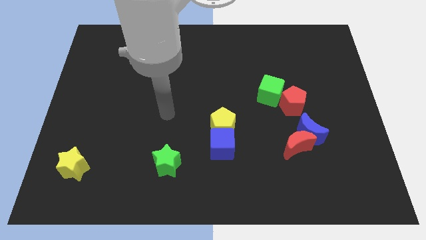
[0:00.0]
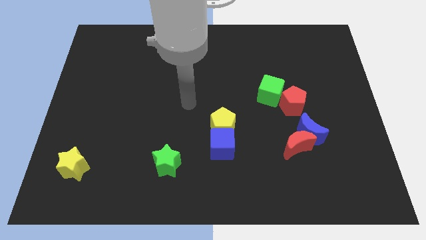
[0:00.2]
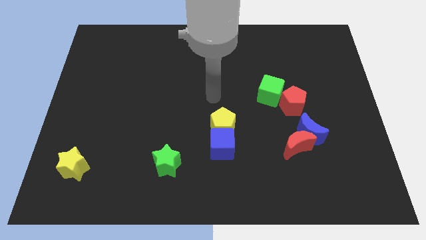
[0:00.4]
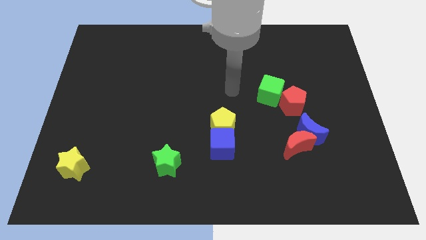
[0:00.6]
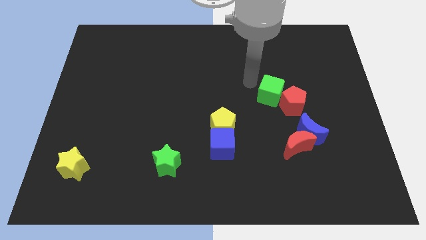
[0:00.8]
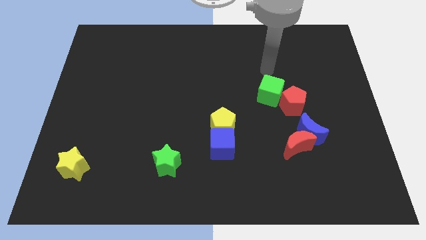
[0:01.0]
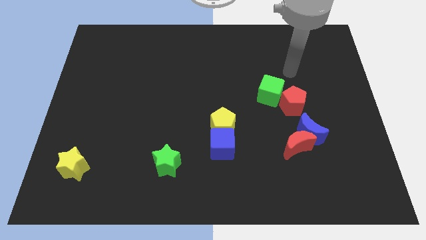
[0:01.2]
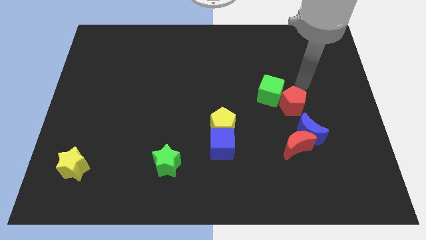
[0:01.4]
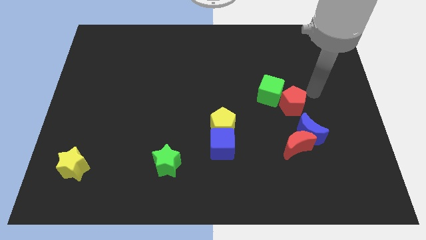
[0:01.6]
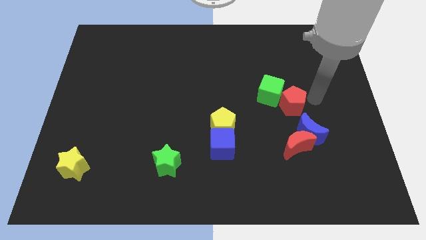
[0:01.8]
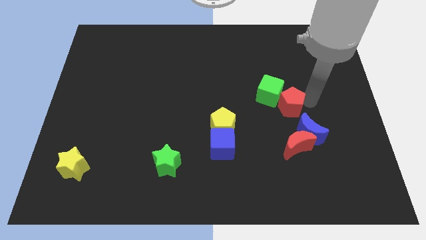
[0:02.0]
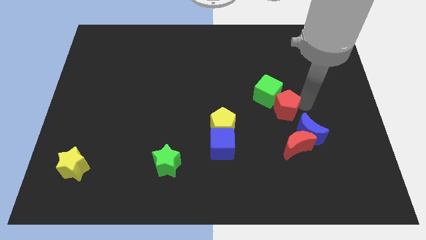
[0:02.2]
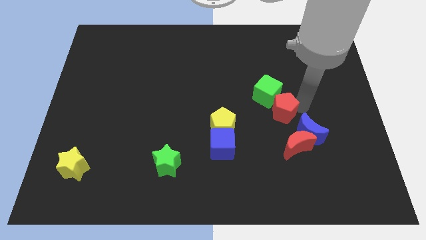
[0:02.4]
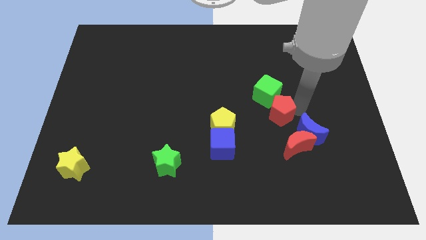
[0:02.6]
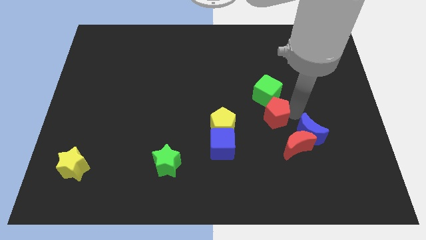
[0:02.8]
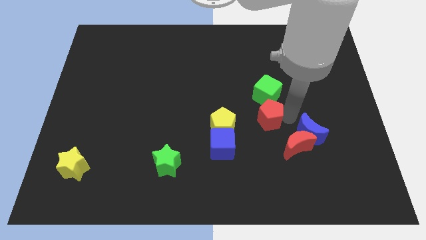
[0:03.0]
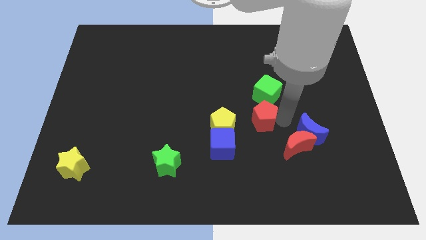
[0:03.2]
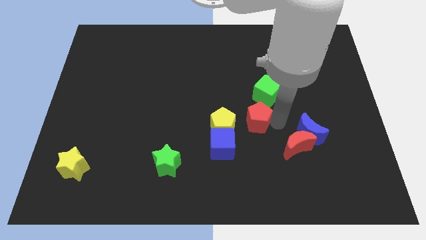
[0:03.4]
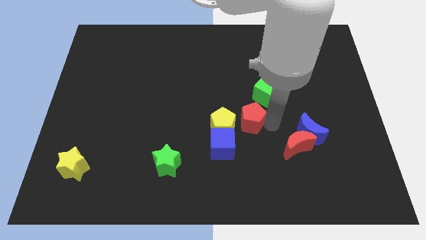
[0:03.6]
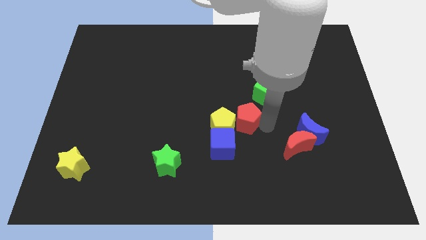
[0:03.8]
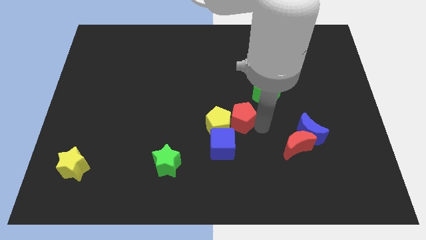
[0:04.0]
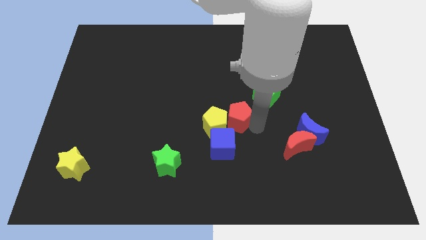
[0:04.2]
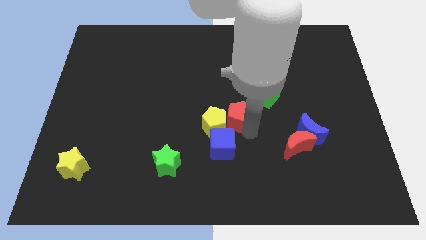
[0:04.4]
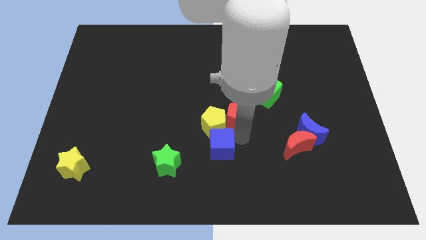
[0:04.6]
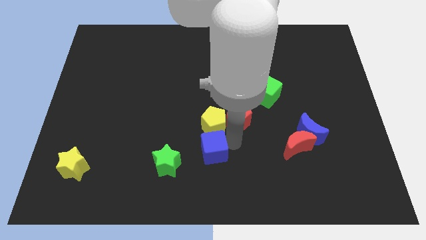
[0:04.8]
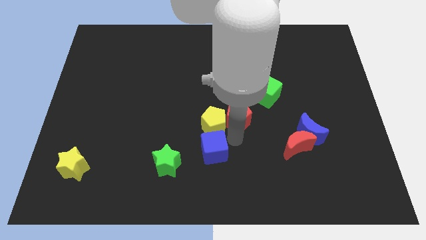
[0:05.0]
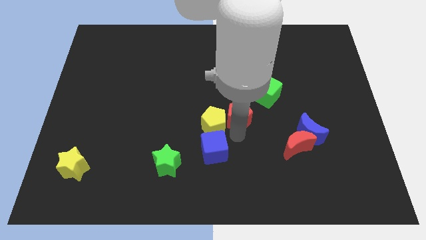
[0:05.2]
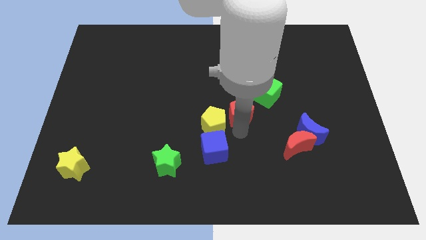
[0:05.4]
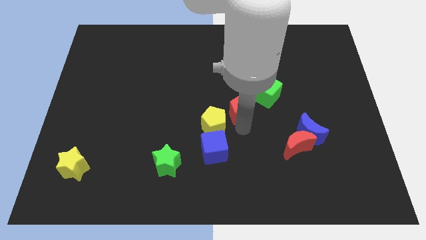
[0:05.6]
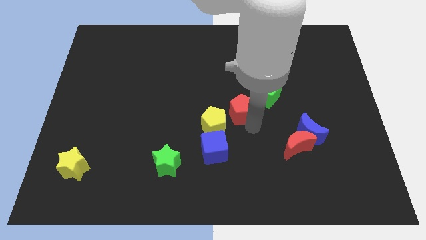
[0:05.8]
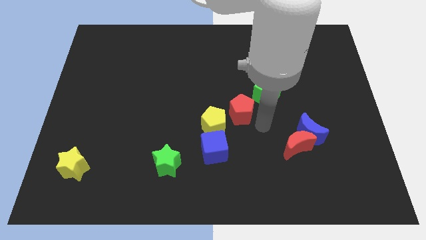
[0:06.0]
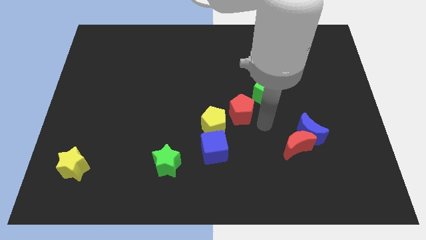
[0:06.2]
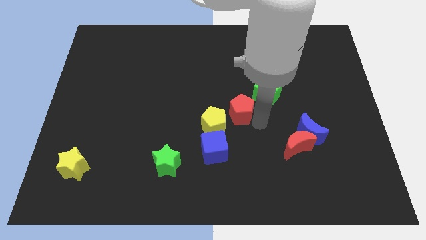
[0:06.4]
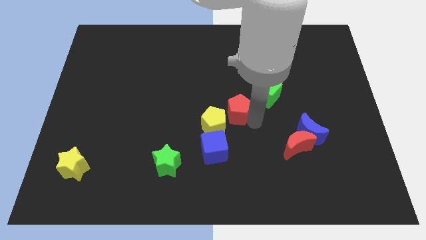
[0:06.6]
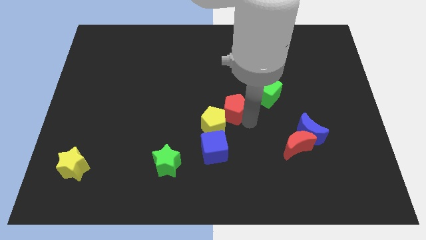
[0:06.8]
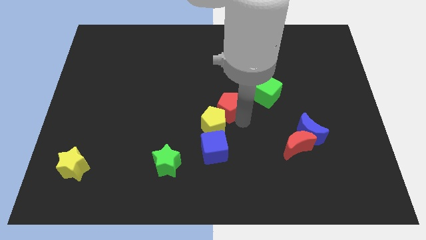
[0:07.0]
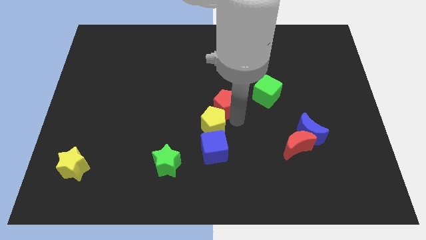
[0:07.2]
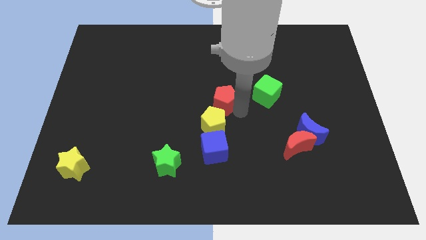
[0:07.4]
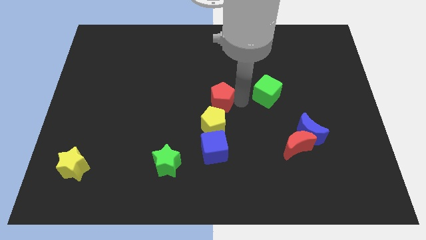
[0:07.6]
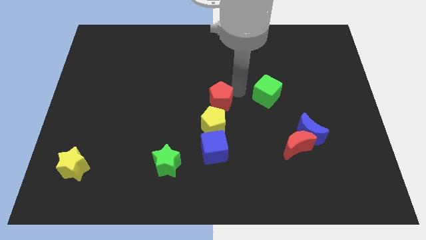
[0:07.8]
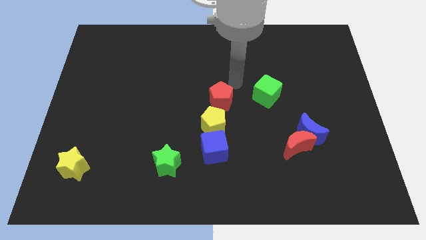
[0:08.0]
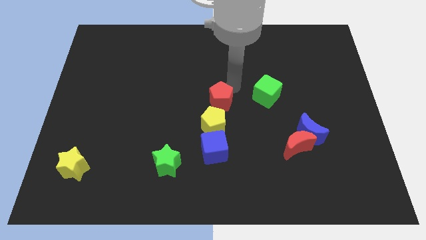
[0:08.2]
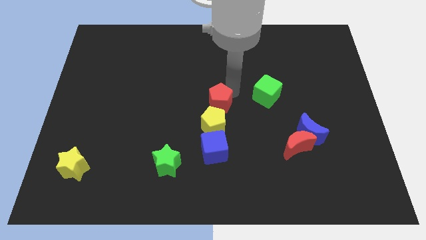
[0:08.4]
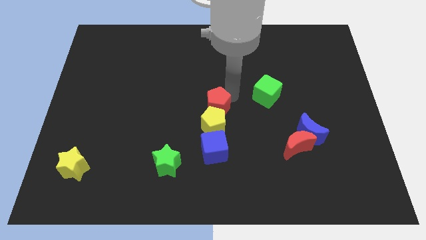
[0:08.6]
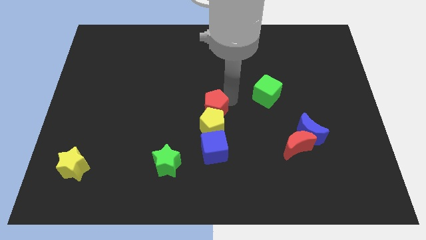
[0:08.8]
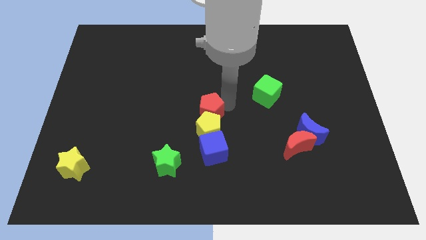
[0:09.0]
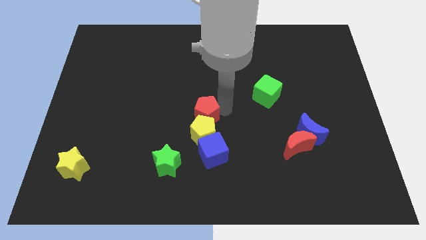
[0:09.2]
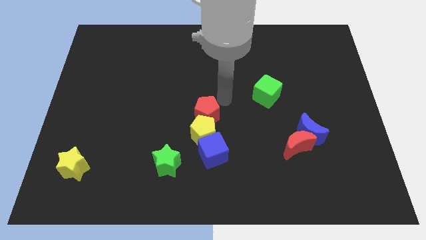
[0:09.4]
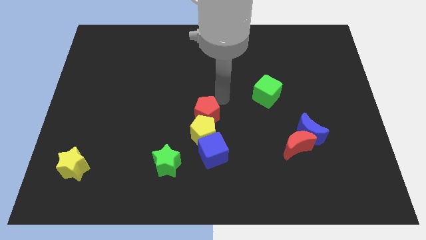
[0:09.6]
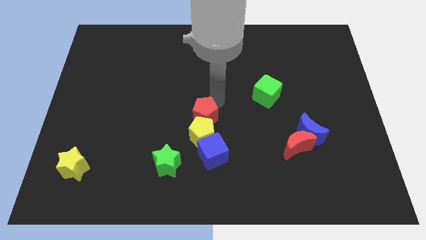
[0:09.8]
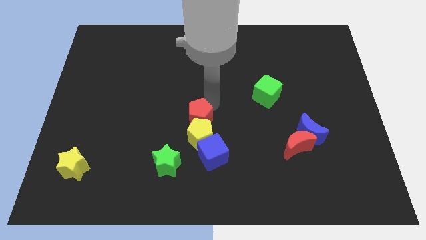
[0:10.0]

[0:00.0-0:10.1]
slide the red pentagon diagonally up and to the left of the blue cube

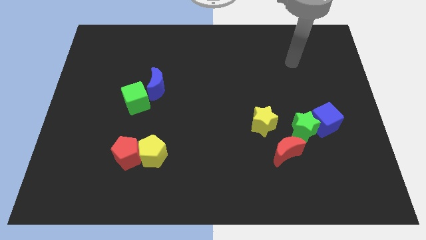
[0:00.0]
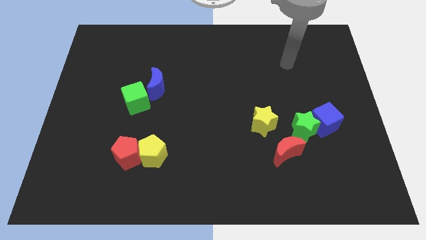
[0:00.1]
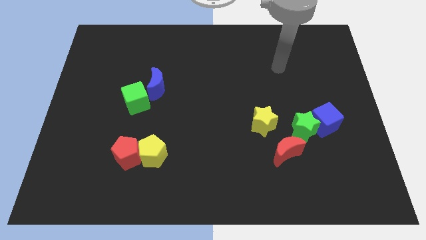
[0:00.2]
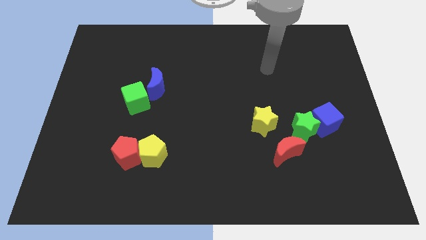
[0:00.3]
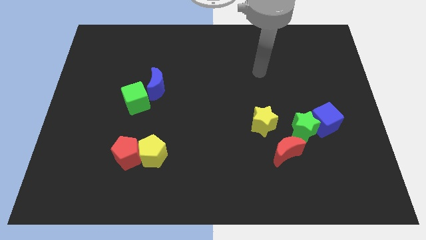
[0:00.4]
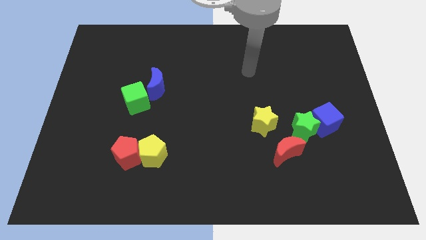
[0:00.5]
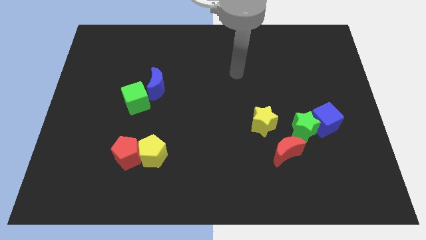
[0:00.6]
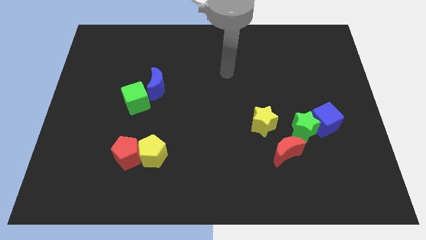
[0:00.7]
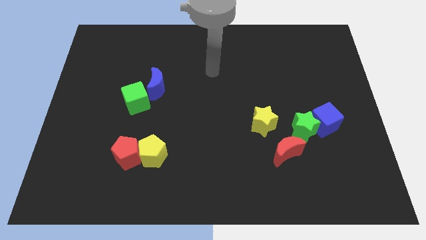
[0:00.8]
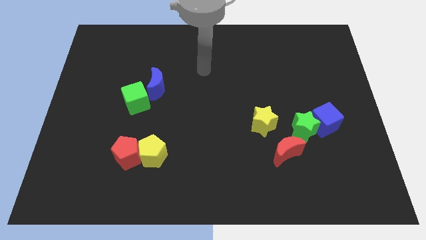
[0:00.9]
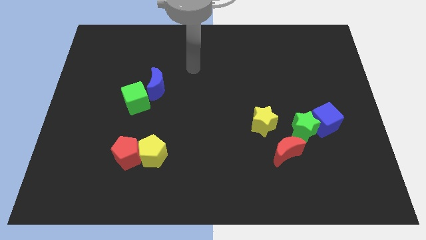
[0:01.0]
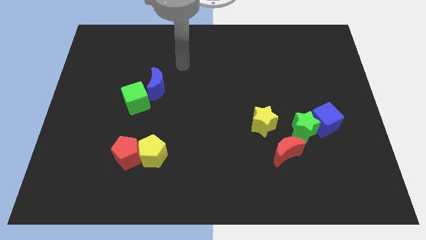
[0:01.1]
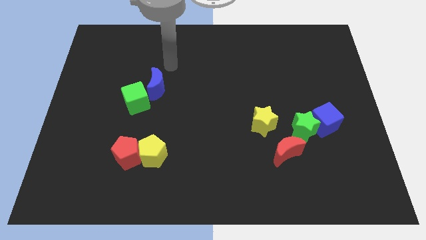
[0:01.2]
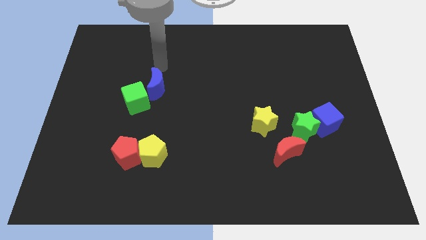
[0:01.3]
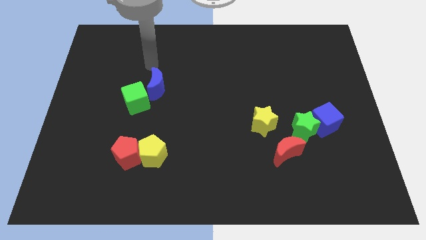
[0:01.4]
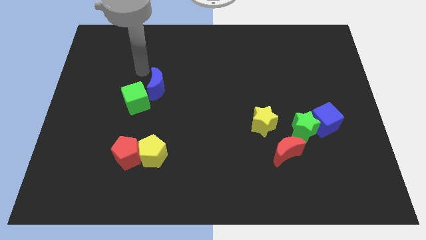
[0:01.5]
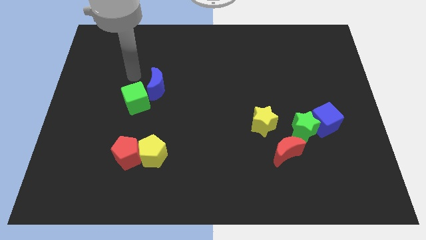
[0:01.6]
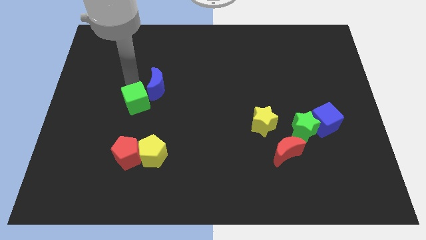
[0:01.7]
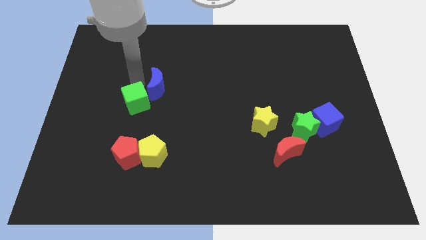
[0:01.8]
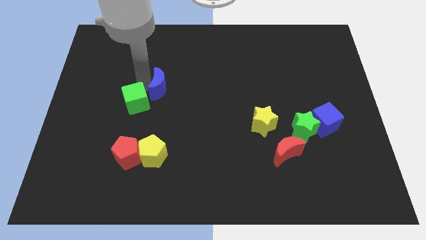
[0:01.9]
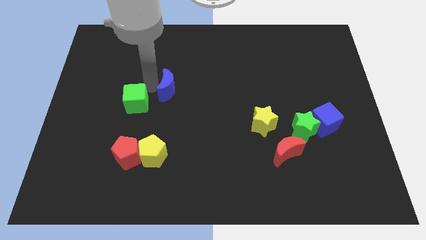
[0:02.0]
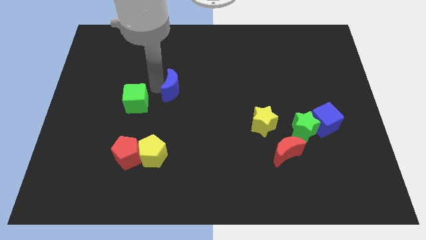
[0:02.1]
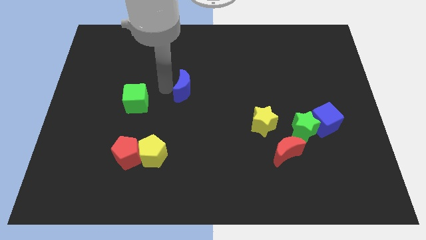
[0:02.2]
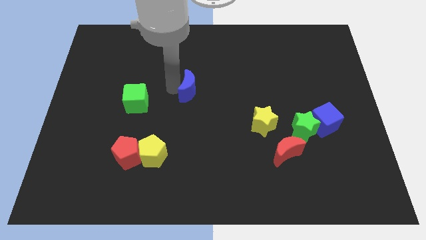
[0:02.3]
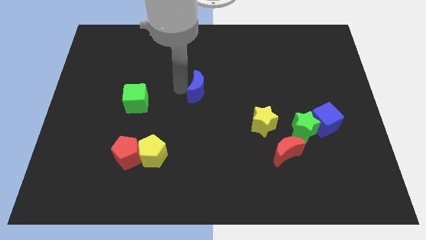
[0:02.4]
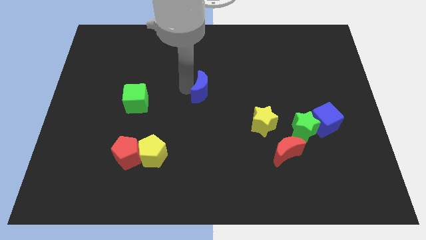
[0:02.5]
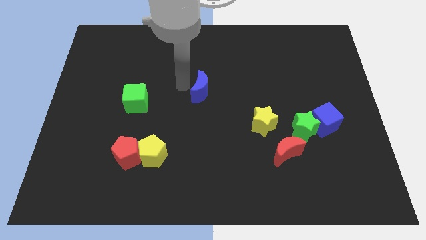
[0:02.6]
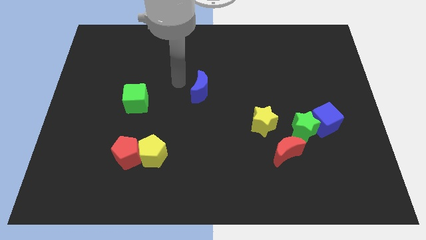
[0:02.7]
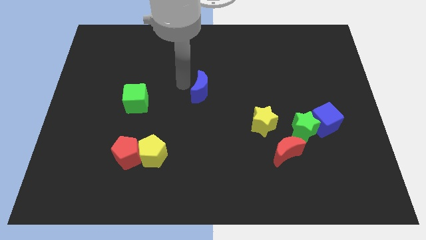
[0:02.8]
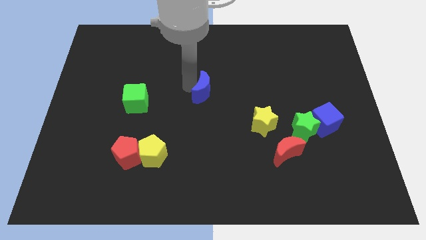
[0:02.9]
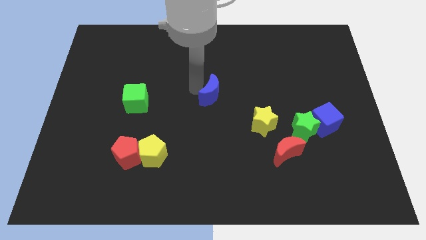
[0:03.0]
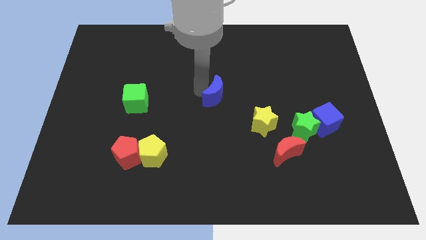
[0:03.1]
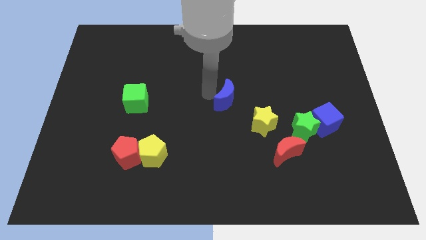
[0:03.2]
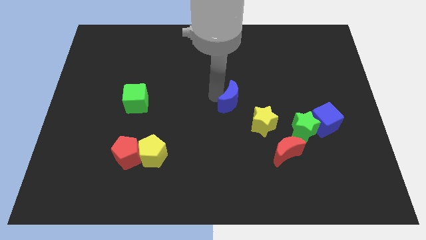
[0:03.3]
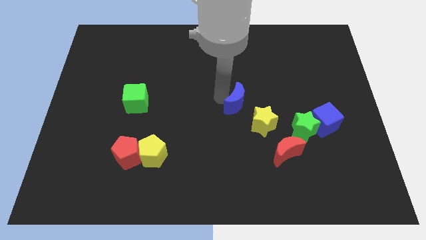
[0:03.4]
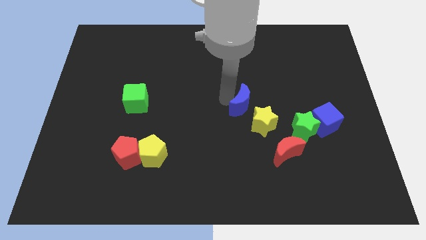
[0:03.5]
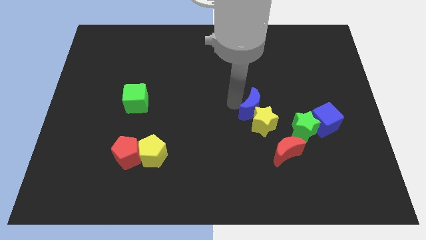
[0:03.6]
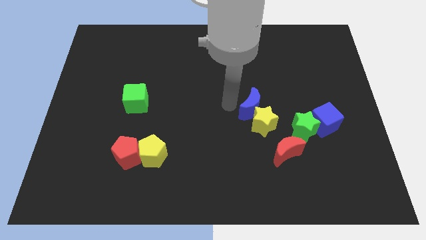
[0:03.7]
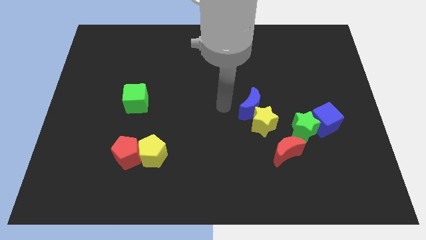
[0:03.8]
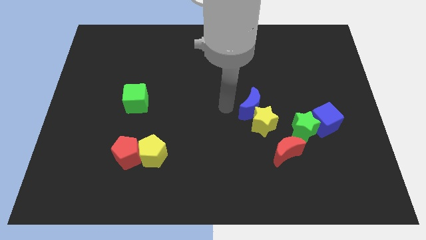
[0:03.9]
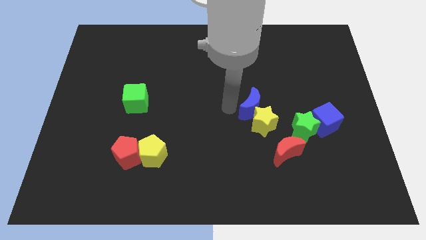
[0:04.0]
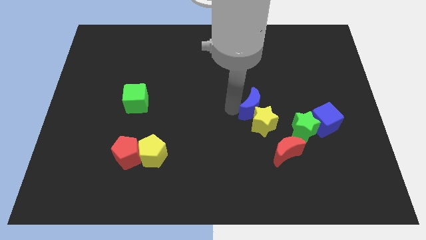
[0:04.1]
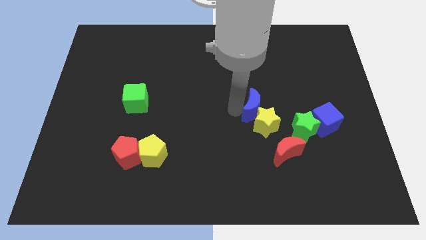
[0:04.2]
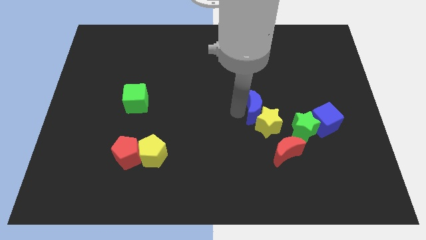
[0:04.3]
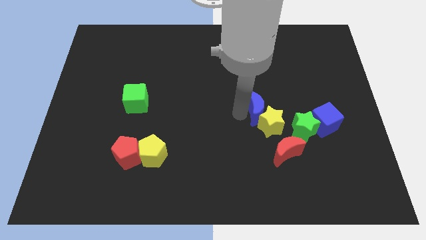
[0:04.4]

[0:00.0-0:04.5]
move the blue moon diagonally up and to the left of the green star
